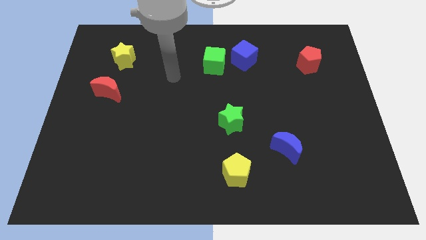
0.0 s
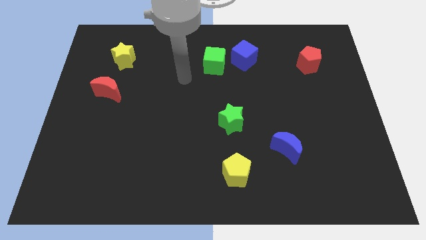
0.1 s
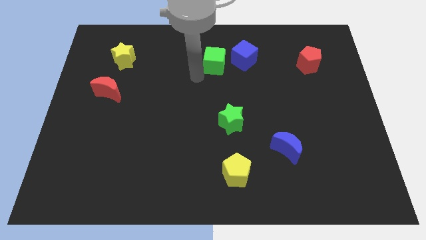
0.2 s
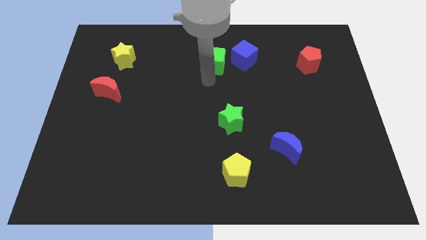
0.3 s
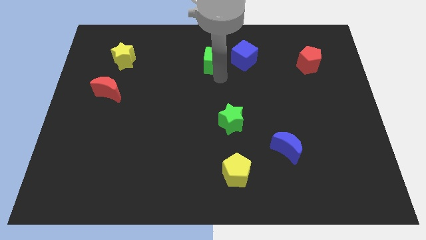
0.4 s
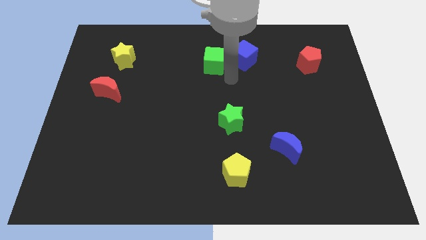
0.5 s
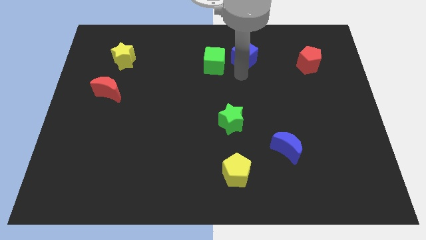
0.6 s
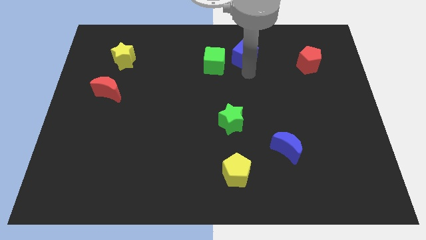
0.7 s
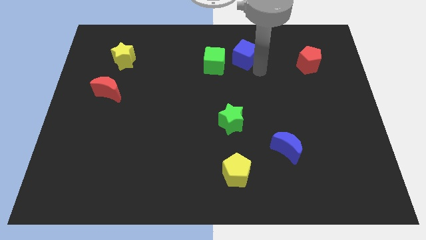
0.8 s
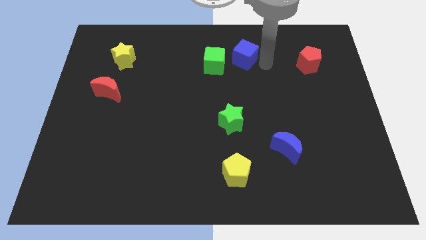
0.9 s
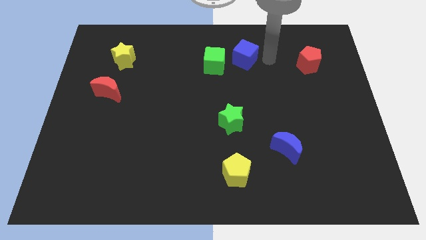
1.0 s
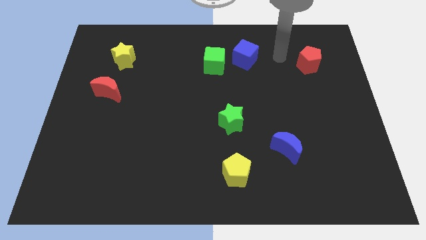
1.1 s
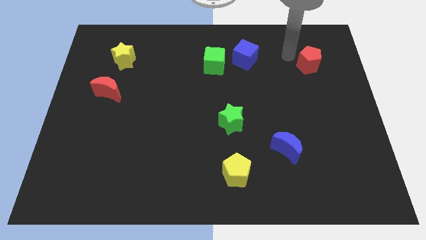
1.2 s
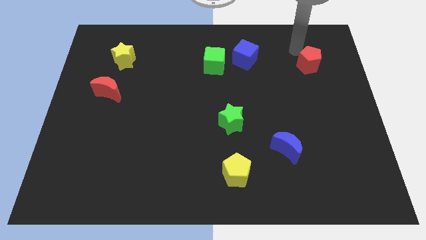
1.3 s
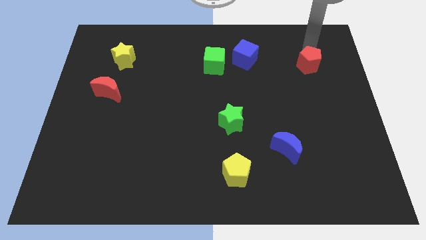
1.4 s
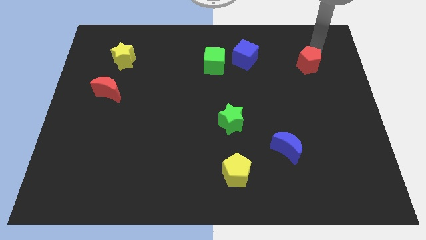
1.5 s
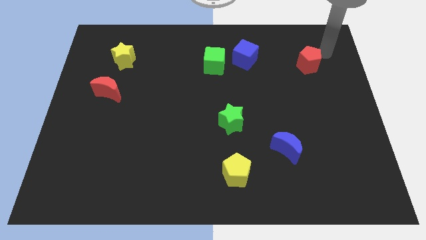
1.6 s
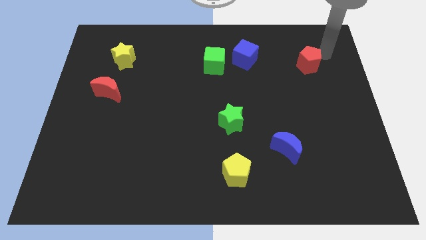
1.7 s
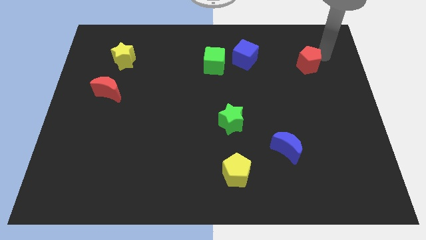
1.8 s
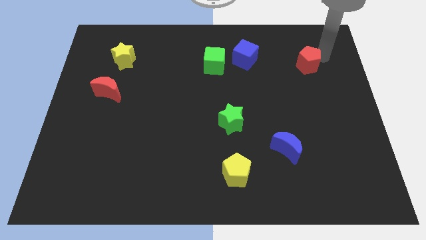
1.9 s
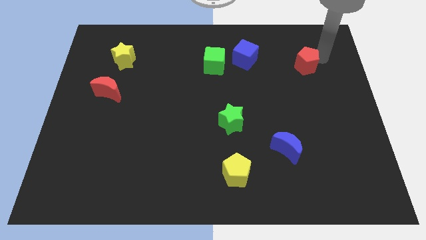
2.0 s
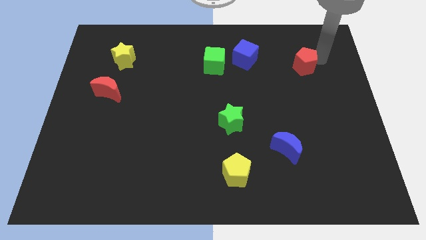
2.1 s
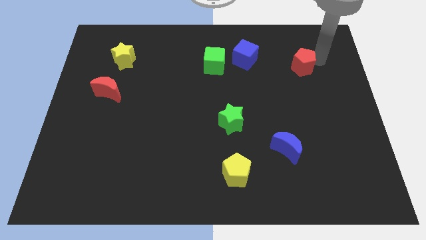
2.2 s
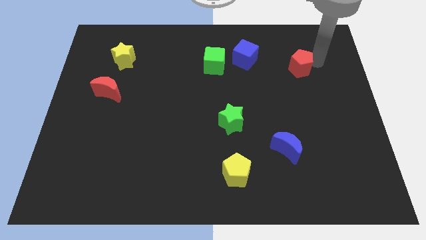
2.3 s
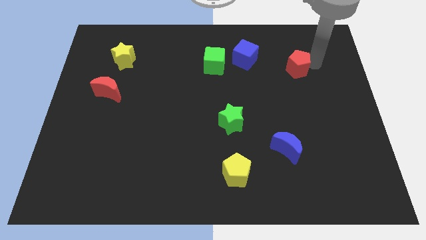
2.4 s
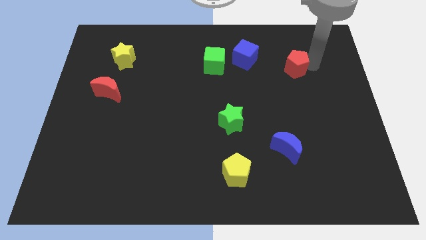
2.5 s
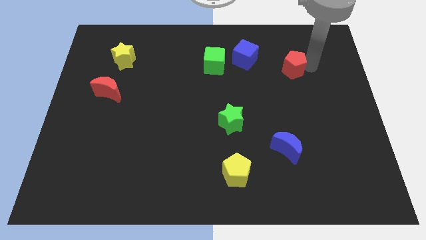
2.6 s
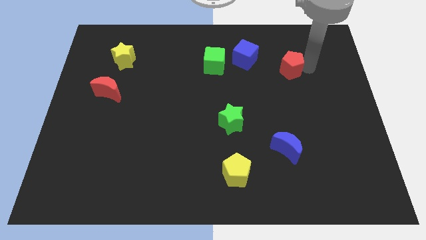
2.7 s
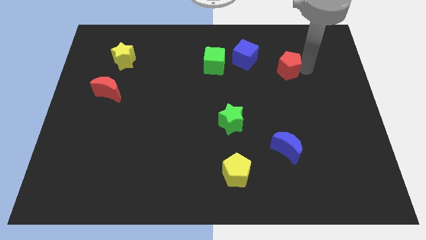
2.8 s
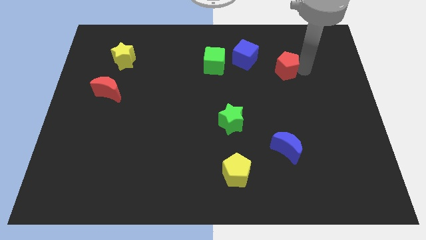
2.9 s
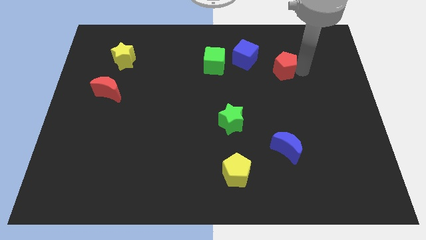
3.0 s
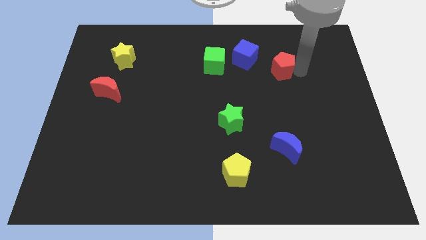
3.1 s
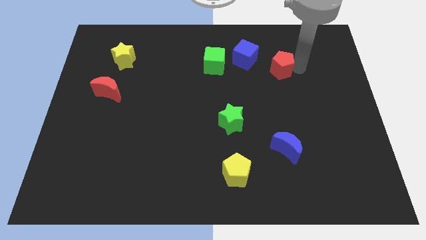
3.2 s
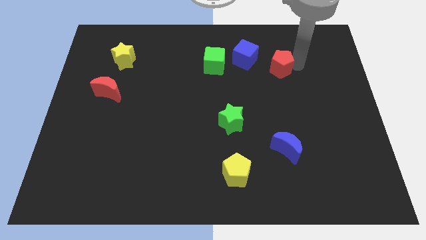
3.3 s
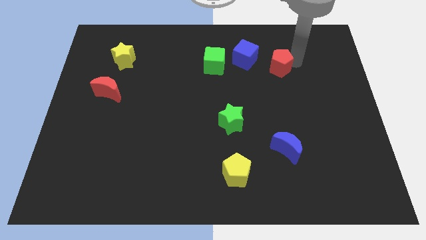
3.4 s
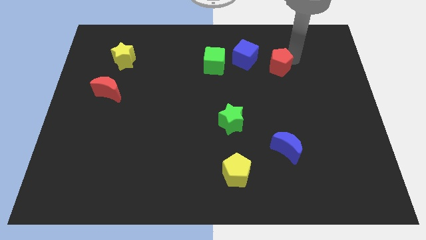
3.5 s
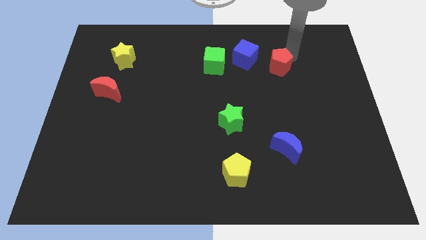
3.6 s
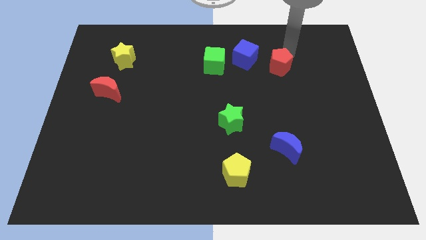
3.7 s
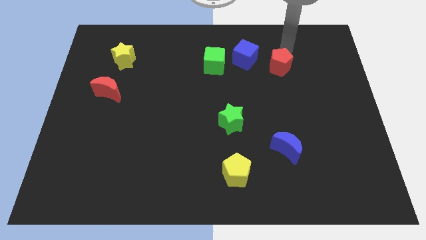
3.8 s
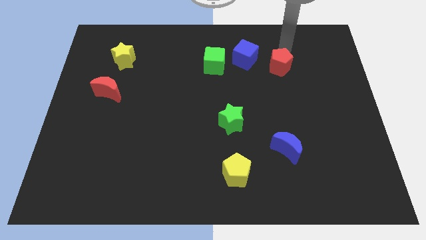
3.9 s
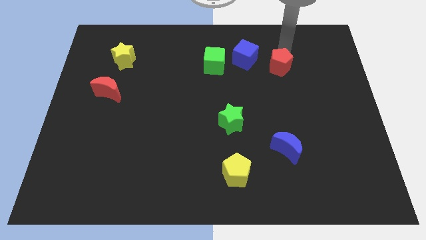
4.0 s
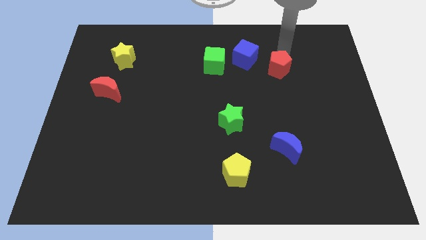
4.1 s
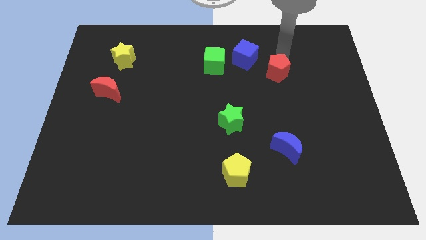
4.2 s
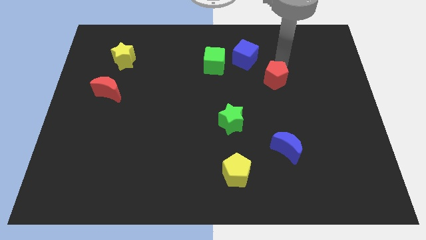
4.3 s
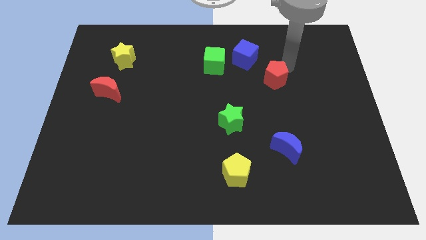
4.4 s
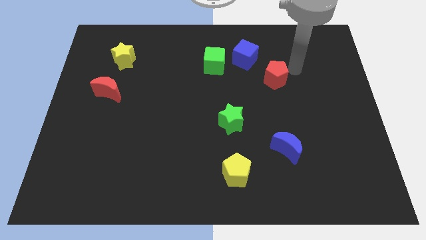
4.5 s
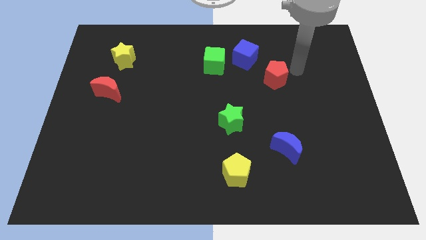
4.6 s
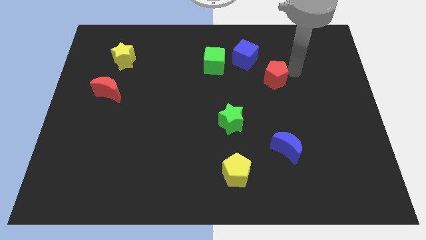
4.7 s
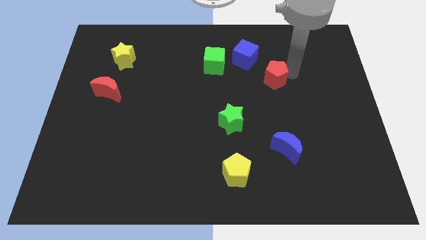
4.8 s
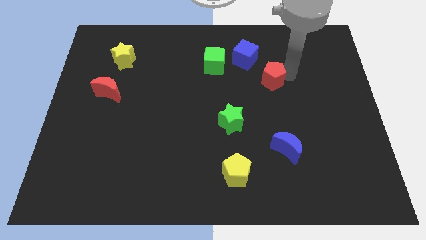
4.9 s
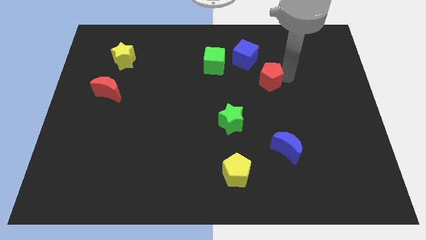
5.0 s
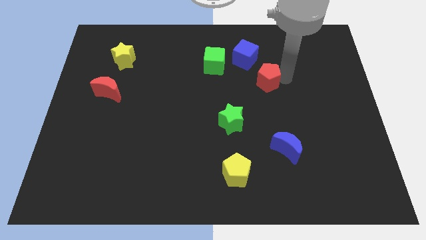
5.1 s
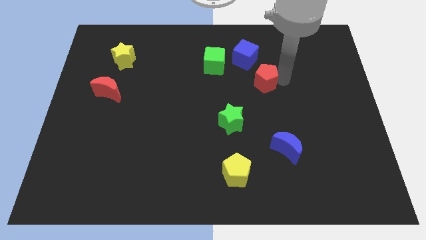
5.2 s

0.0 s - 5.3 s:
slide the red pentagon to the bottom side of the blue cube

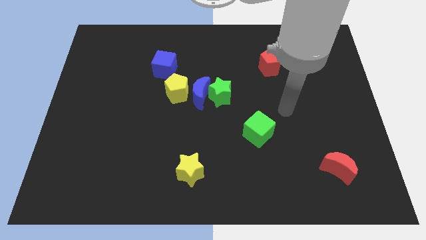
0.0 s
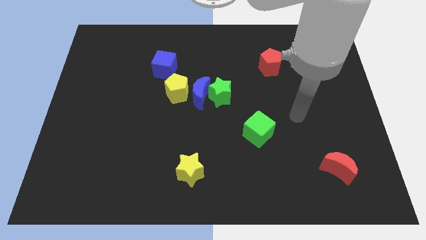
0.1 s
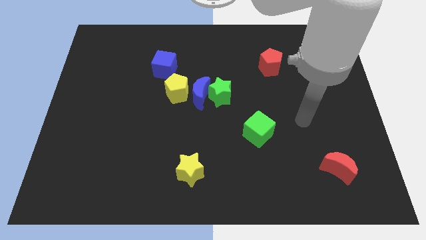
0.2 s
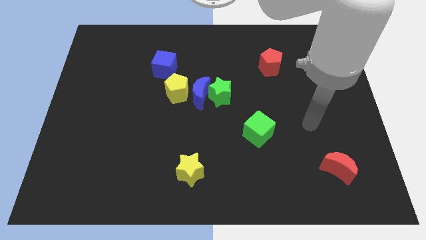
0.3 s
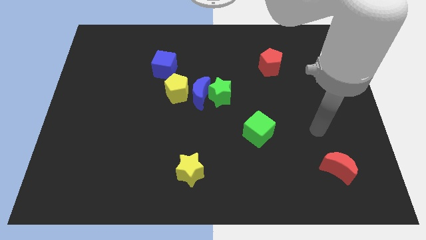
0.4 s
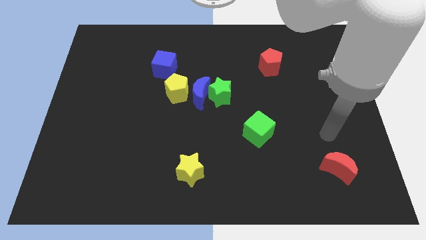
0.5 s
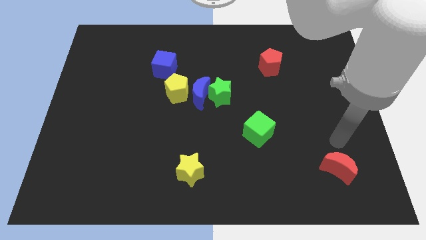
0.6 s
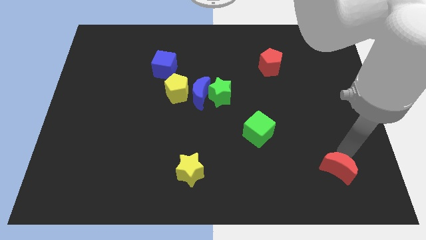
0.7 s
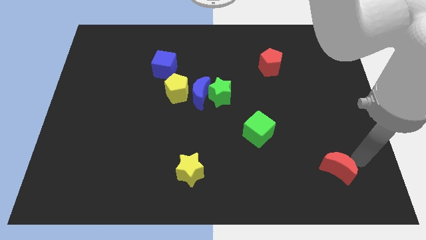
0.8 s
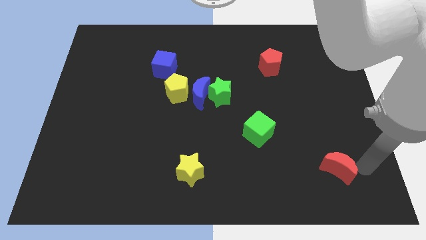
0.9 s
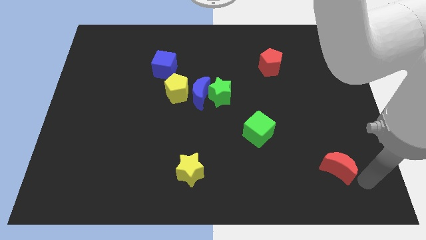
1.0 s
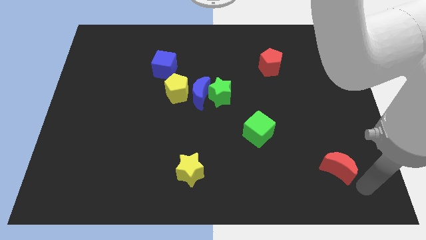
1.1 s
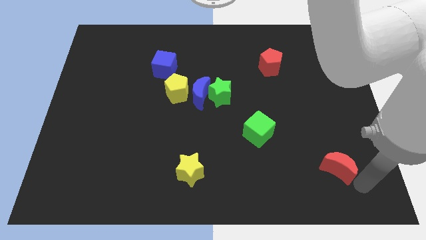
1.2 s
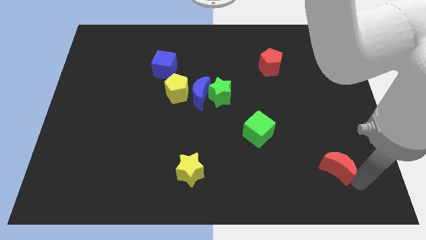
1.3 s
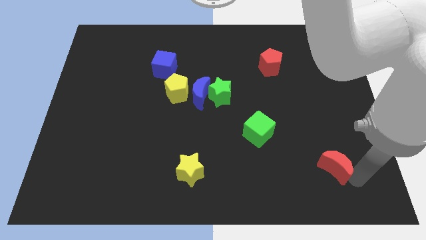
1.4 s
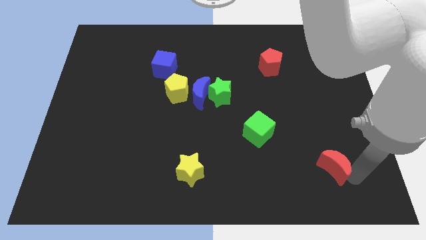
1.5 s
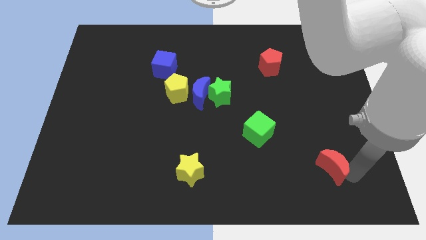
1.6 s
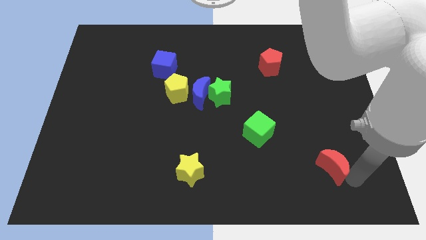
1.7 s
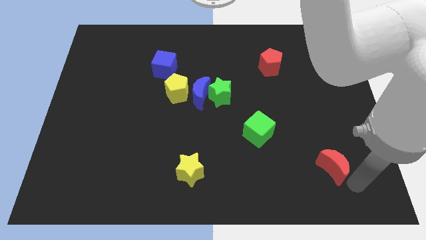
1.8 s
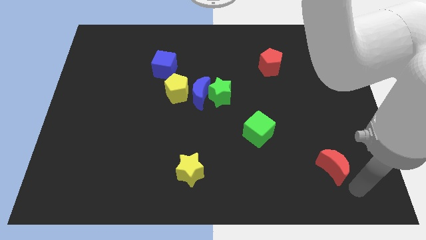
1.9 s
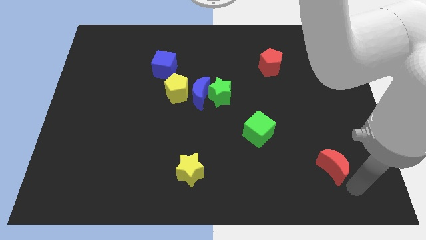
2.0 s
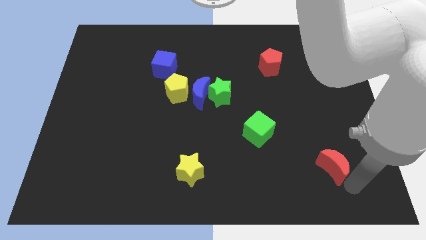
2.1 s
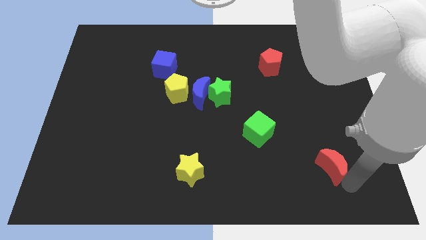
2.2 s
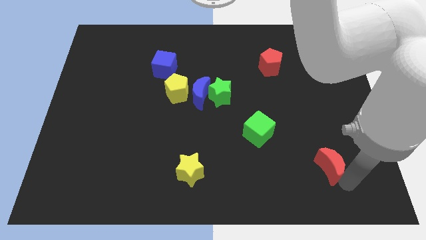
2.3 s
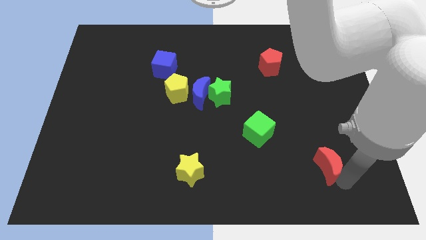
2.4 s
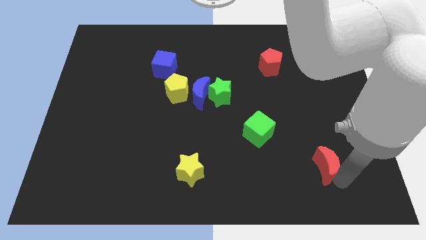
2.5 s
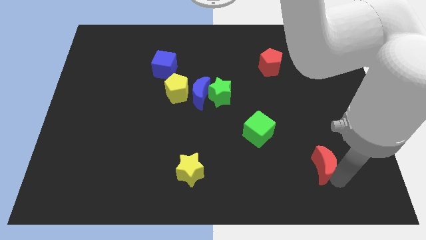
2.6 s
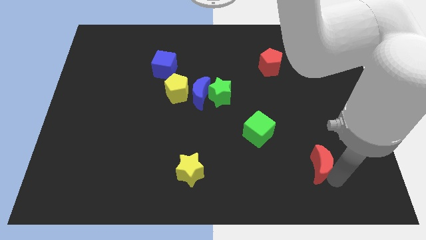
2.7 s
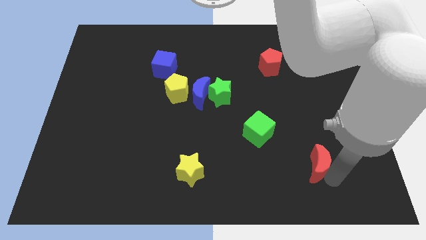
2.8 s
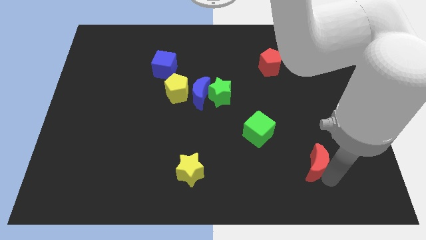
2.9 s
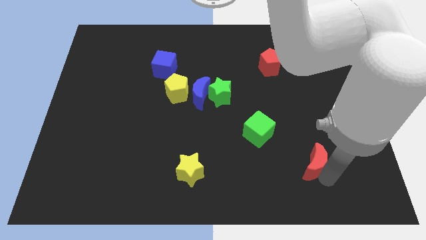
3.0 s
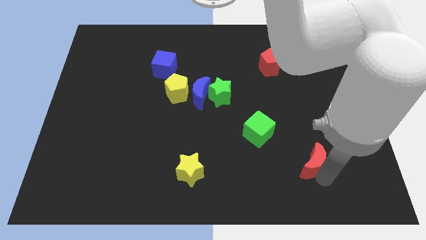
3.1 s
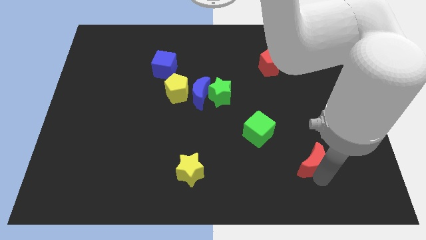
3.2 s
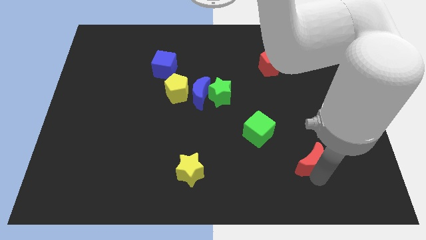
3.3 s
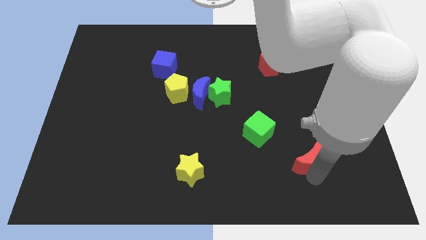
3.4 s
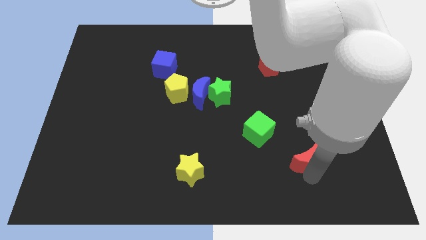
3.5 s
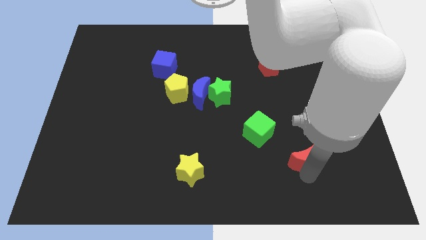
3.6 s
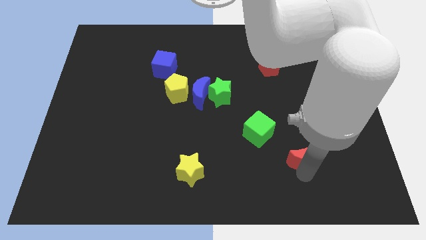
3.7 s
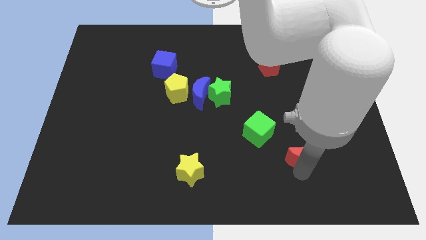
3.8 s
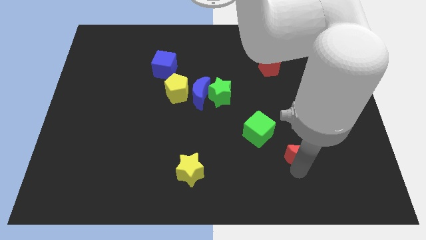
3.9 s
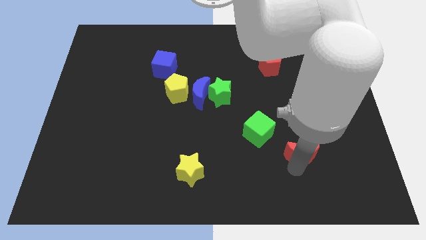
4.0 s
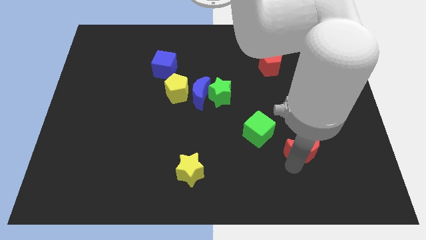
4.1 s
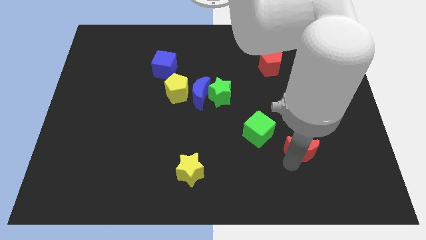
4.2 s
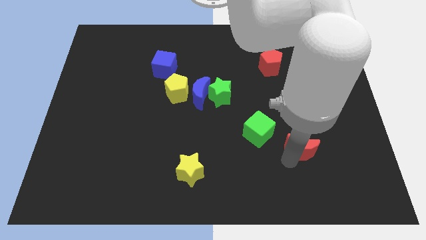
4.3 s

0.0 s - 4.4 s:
push the red moon just right of the green cube
